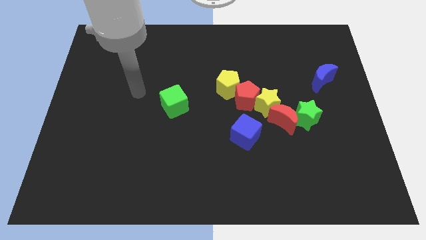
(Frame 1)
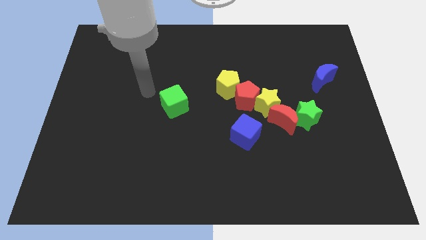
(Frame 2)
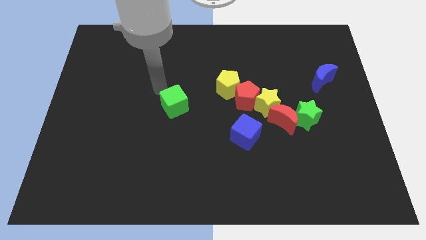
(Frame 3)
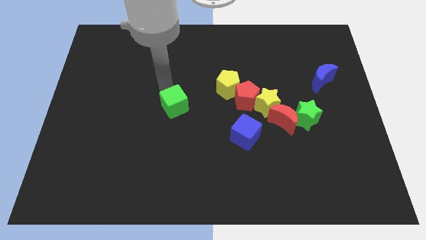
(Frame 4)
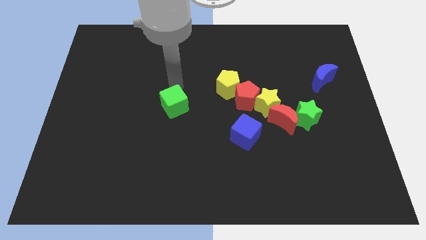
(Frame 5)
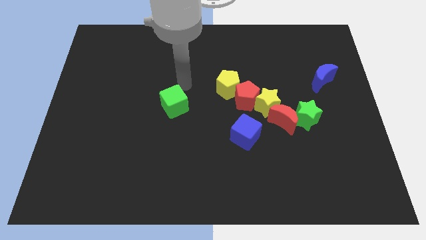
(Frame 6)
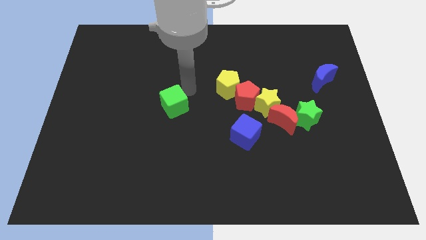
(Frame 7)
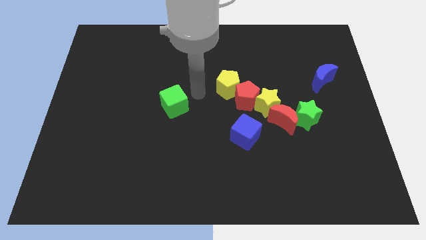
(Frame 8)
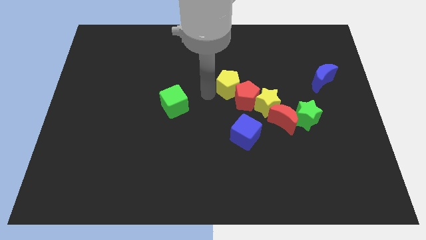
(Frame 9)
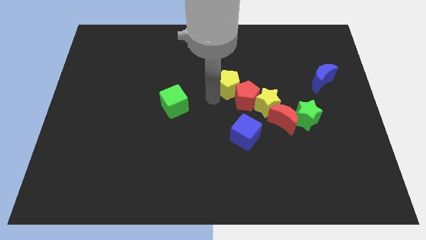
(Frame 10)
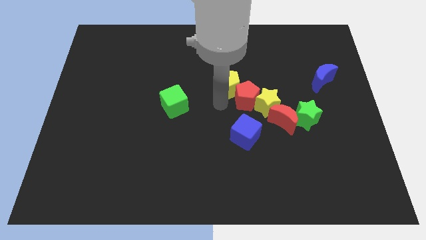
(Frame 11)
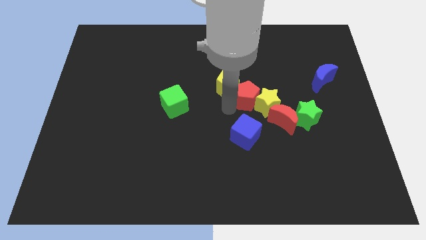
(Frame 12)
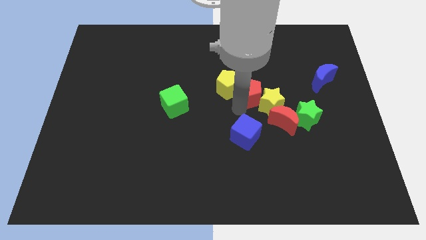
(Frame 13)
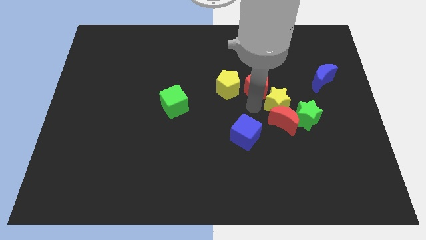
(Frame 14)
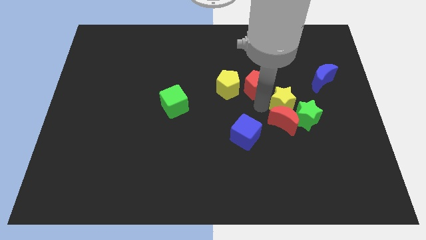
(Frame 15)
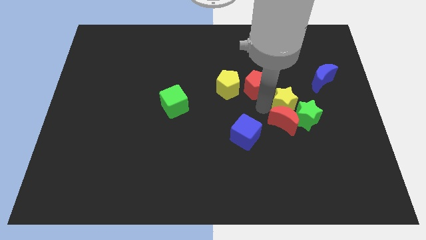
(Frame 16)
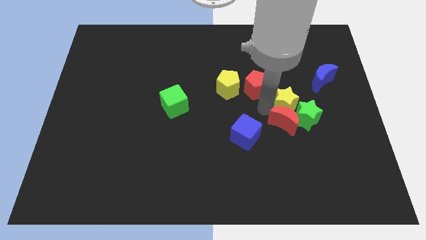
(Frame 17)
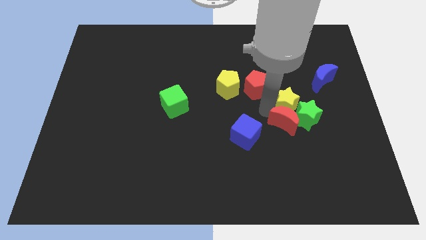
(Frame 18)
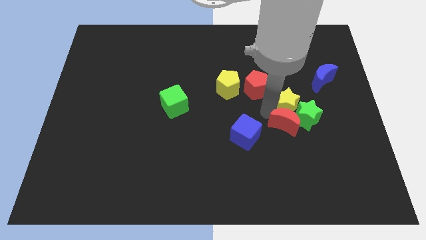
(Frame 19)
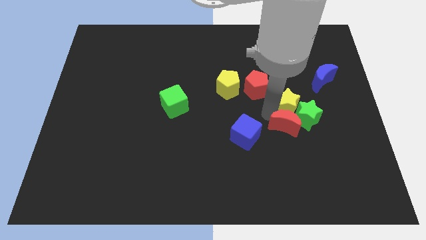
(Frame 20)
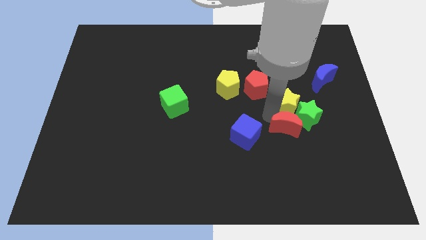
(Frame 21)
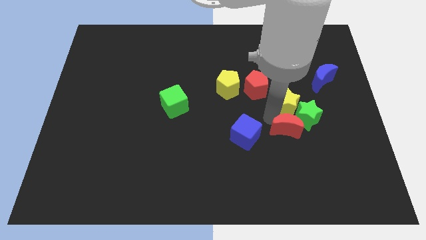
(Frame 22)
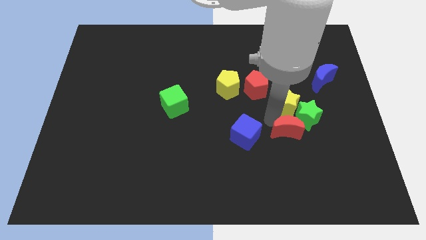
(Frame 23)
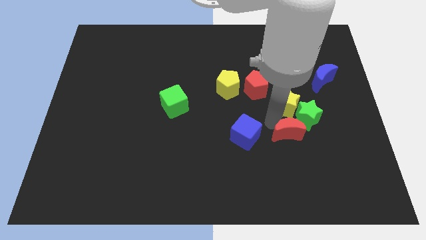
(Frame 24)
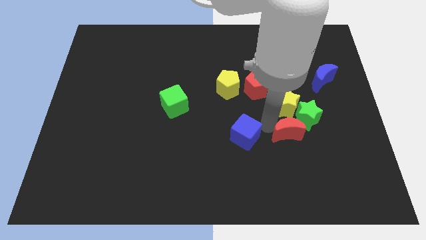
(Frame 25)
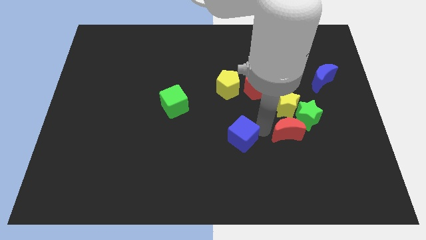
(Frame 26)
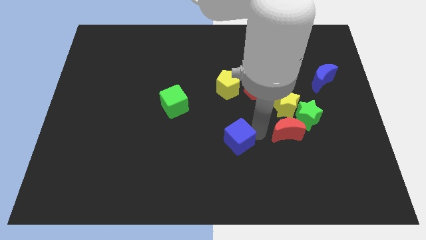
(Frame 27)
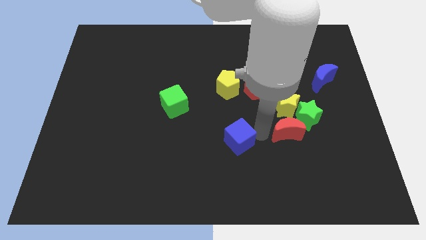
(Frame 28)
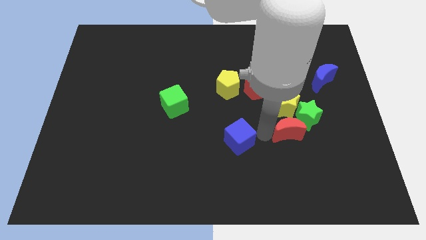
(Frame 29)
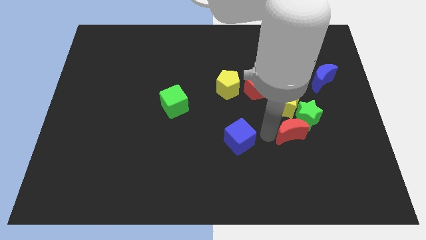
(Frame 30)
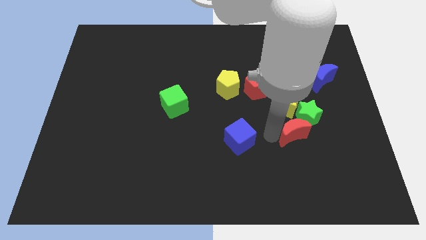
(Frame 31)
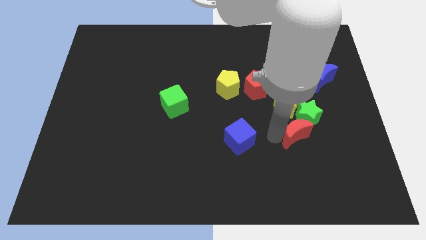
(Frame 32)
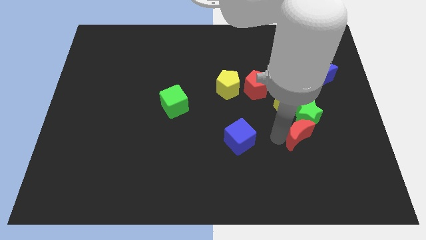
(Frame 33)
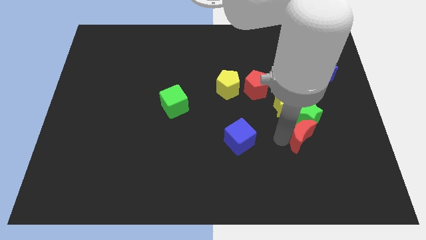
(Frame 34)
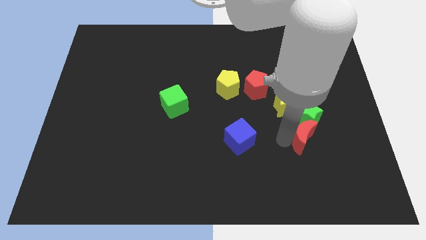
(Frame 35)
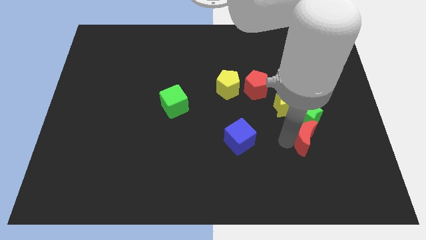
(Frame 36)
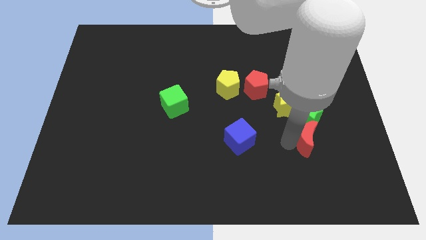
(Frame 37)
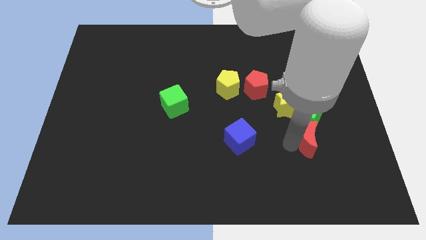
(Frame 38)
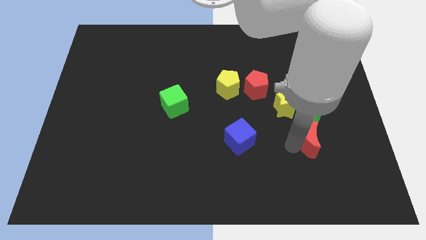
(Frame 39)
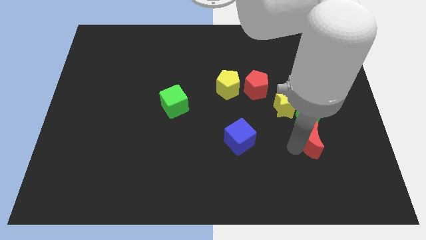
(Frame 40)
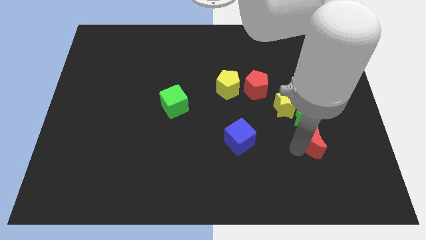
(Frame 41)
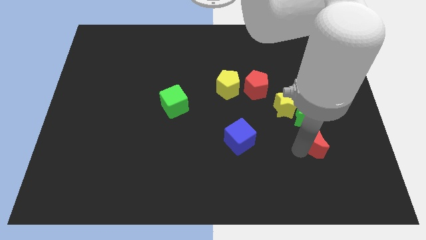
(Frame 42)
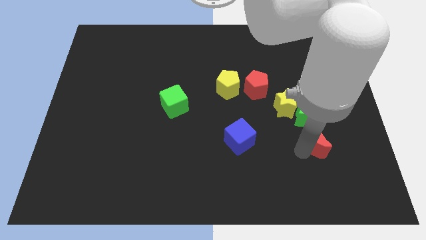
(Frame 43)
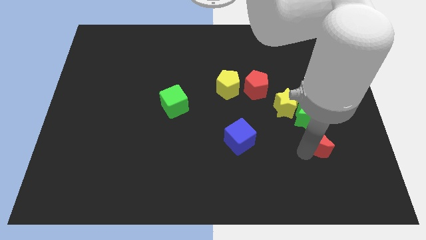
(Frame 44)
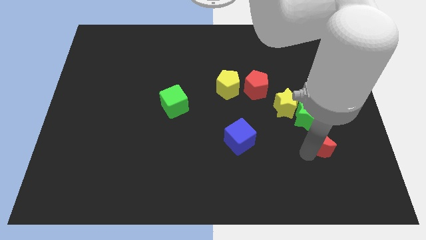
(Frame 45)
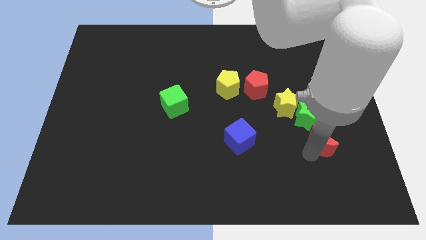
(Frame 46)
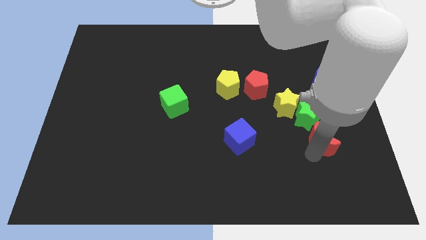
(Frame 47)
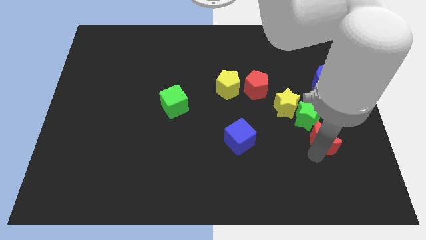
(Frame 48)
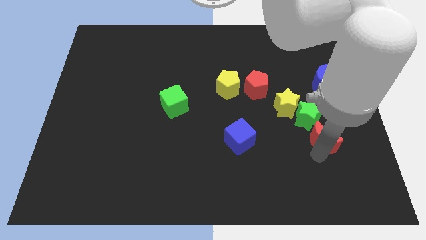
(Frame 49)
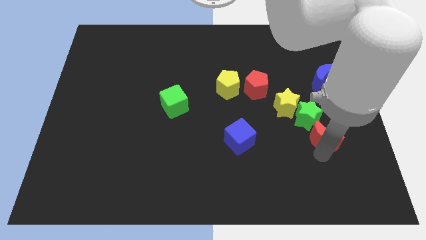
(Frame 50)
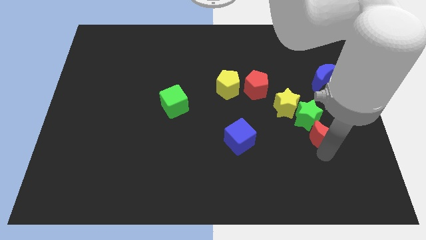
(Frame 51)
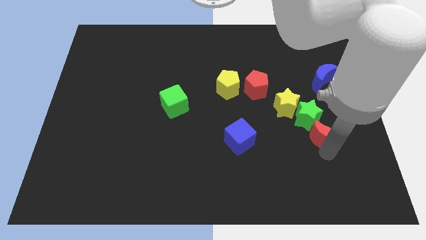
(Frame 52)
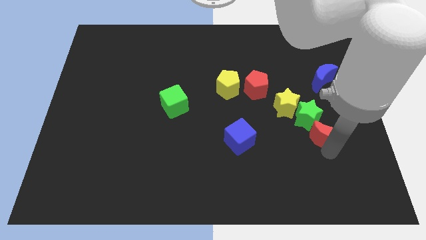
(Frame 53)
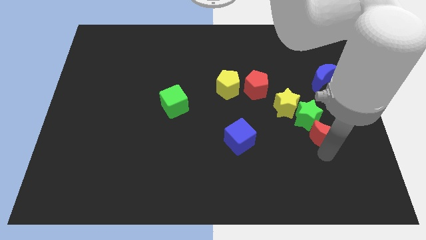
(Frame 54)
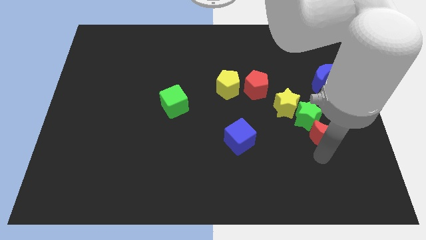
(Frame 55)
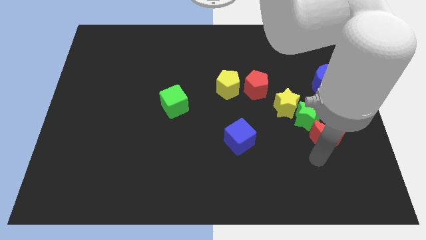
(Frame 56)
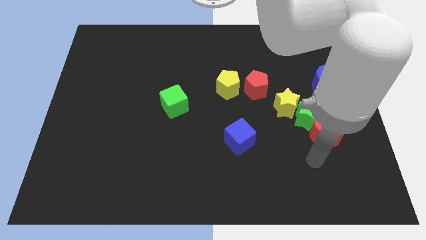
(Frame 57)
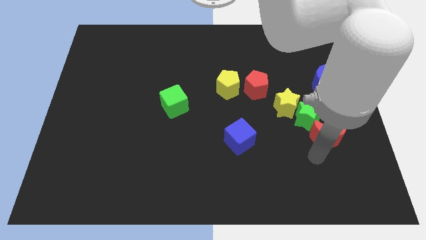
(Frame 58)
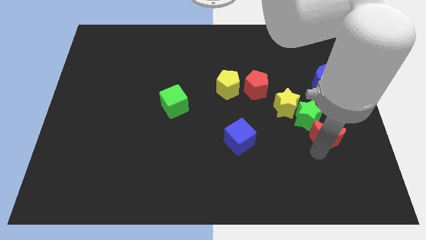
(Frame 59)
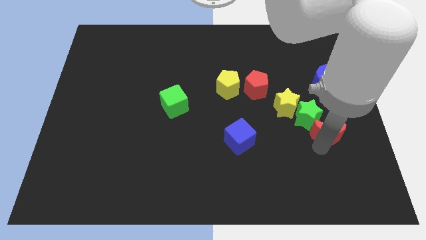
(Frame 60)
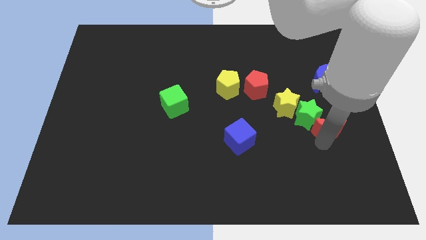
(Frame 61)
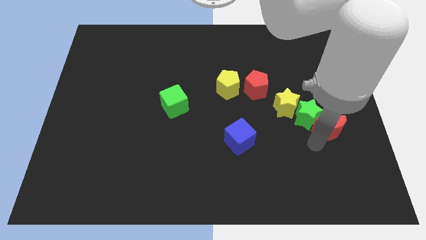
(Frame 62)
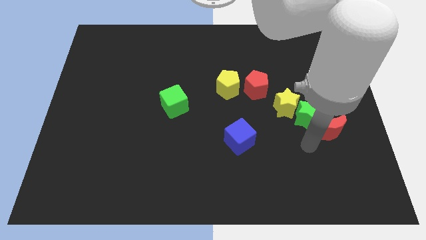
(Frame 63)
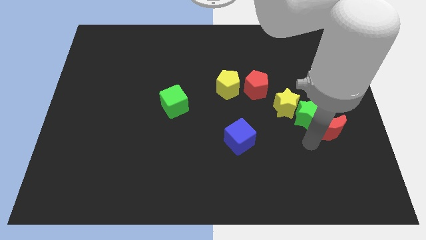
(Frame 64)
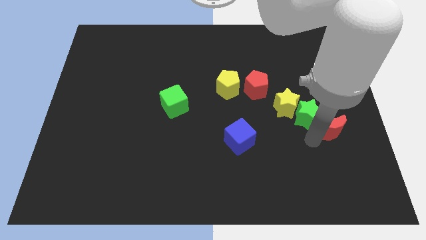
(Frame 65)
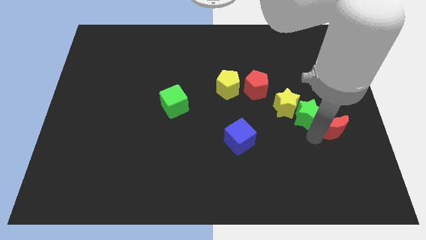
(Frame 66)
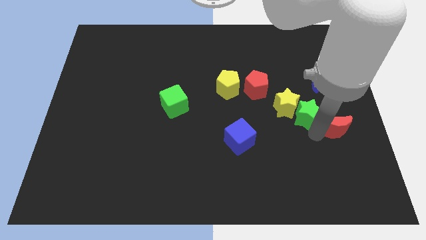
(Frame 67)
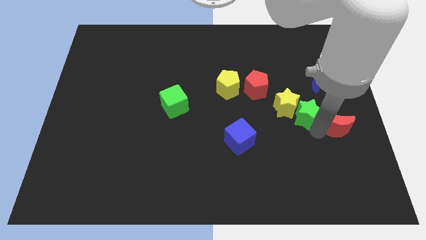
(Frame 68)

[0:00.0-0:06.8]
push the red moon to the right side

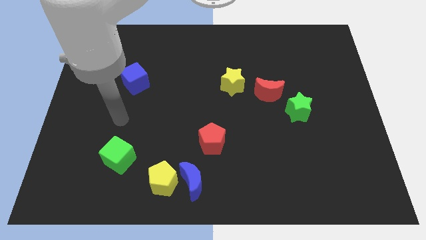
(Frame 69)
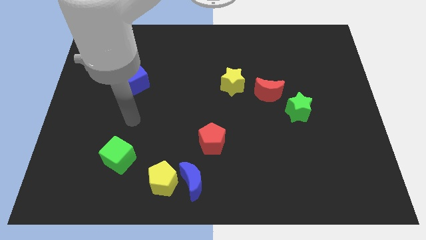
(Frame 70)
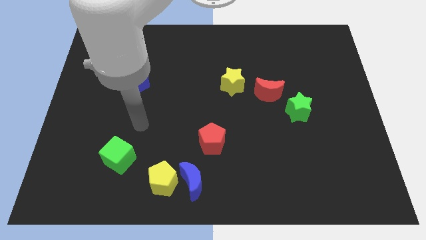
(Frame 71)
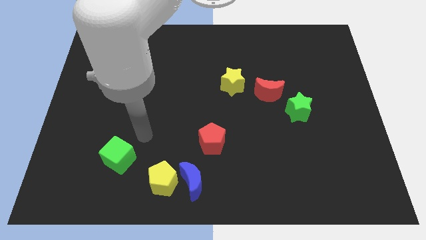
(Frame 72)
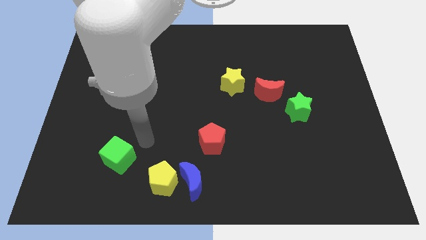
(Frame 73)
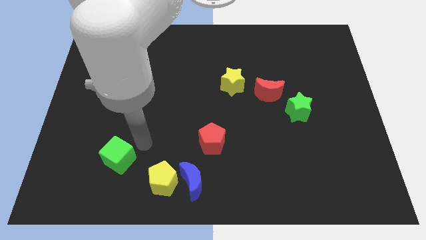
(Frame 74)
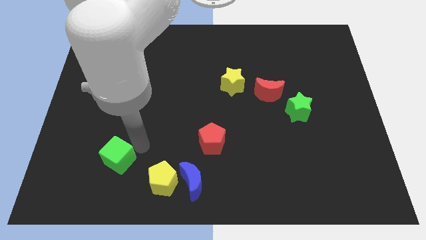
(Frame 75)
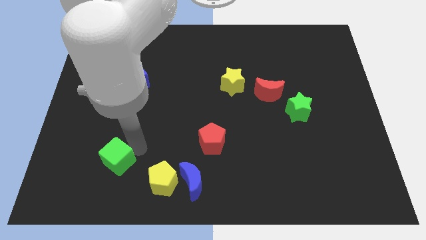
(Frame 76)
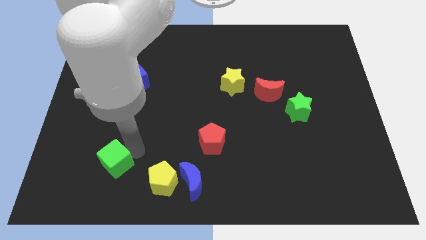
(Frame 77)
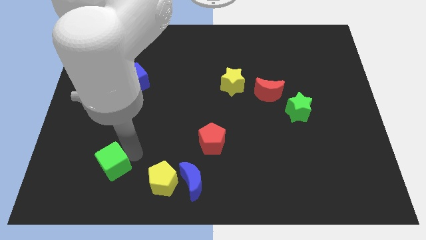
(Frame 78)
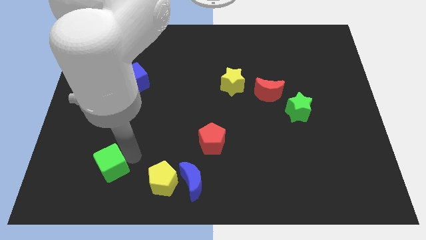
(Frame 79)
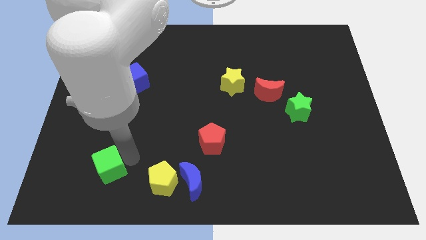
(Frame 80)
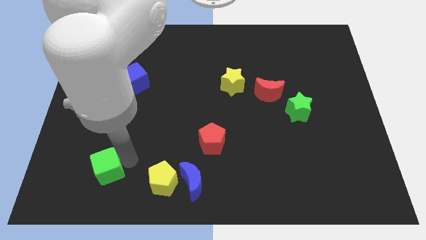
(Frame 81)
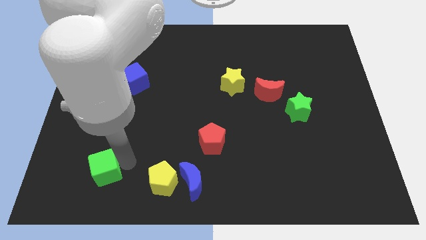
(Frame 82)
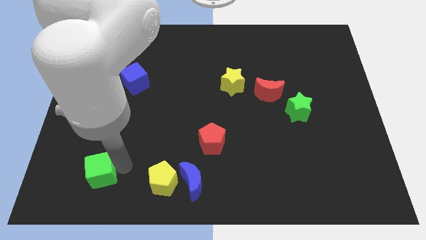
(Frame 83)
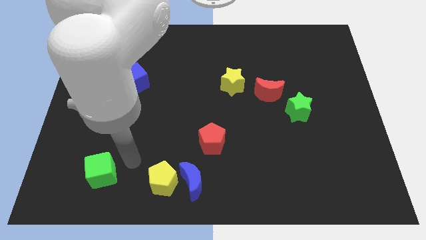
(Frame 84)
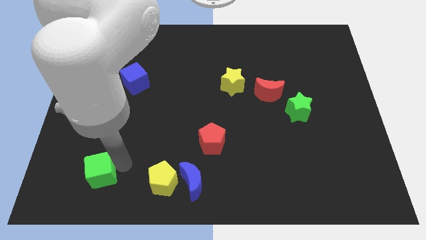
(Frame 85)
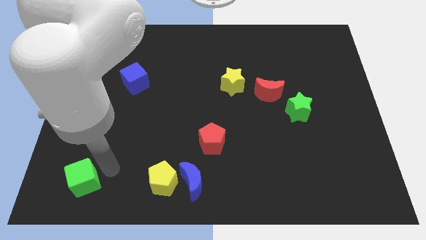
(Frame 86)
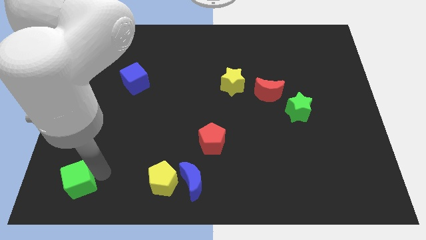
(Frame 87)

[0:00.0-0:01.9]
slide the green cube to the lower left corner
